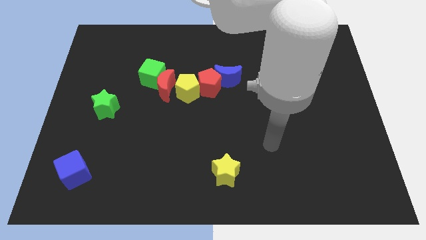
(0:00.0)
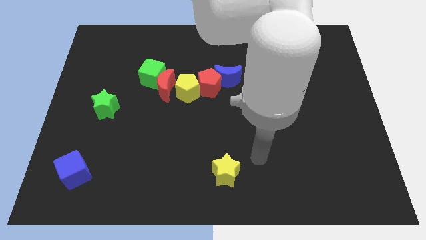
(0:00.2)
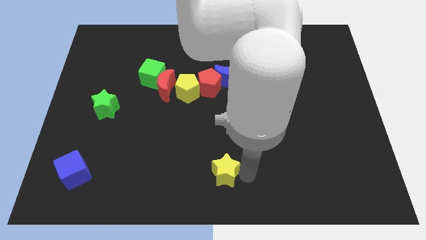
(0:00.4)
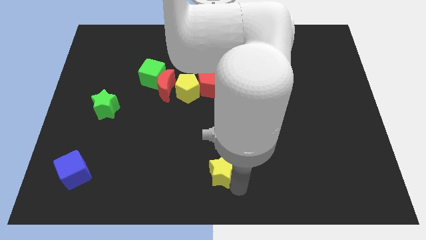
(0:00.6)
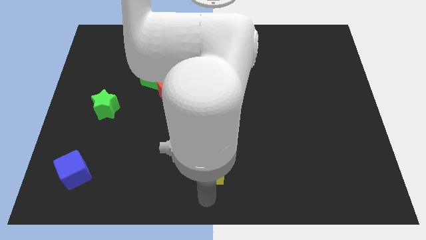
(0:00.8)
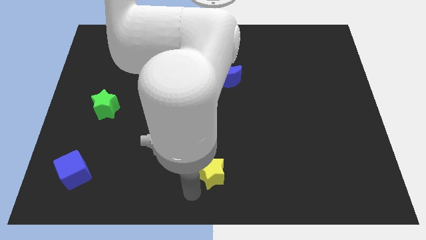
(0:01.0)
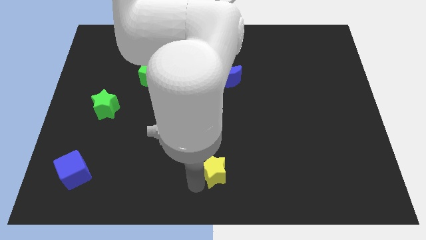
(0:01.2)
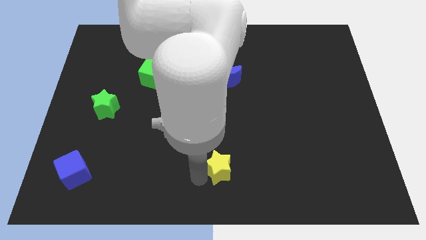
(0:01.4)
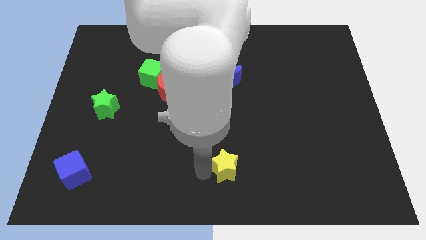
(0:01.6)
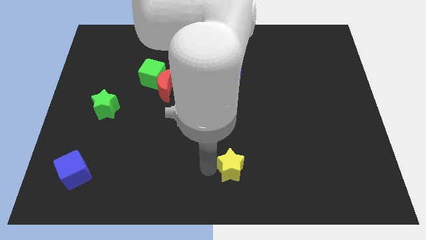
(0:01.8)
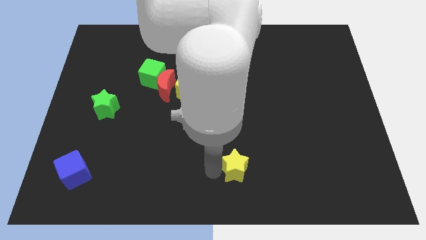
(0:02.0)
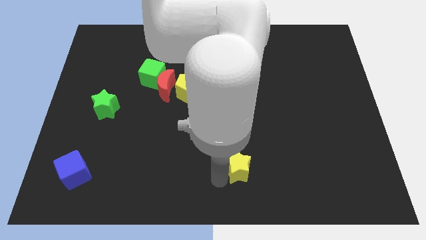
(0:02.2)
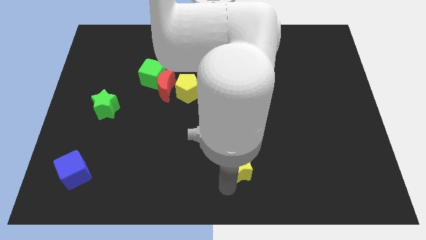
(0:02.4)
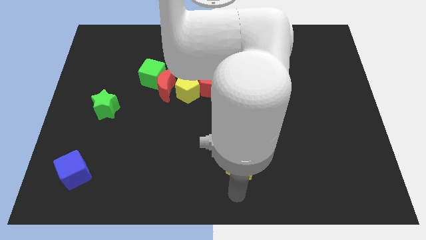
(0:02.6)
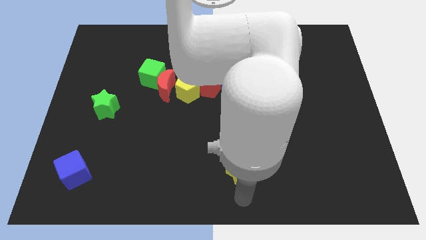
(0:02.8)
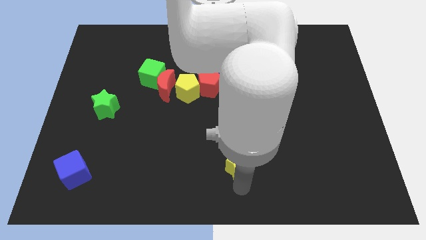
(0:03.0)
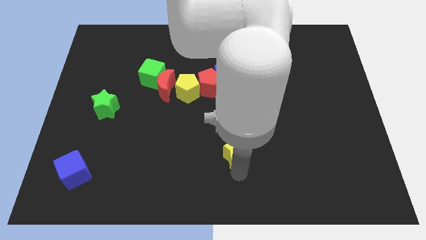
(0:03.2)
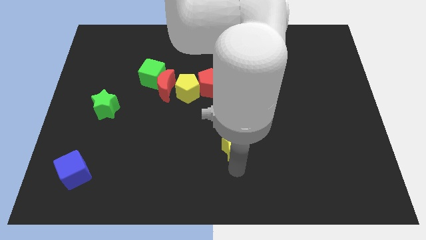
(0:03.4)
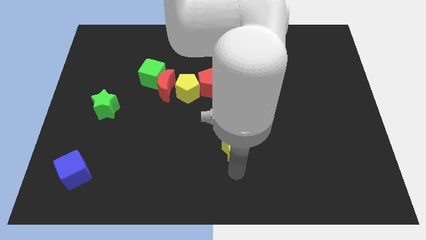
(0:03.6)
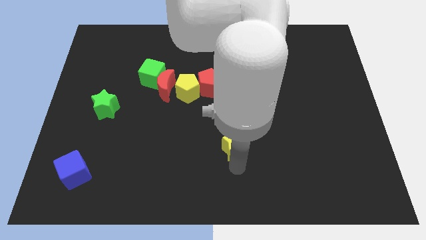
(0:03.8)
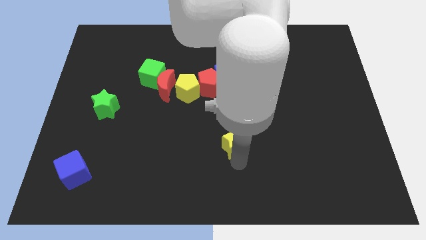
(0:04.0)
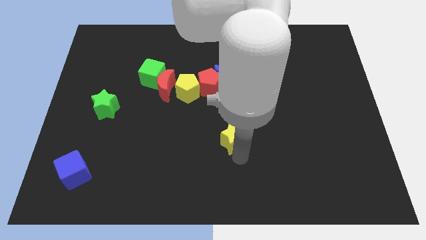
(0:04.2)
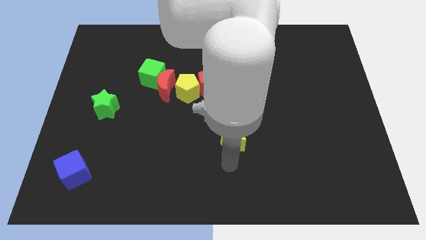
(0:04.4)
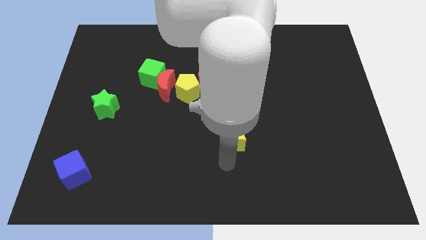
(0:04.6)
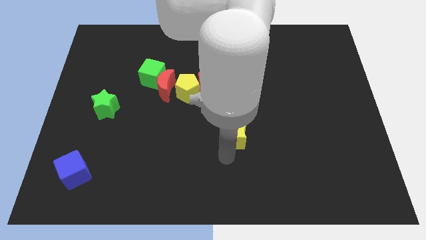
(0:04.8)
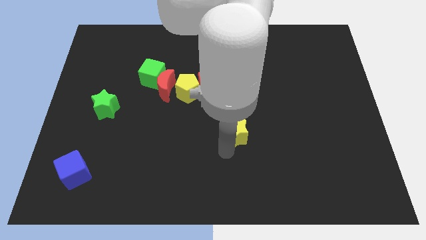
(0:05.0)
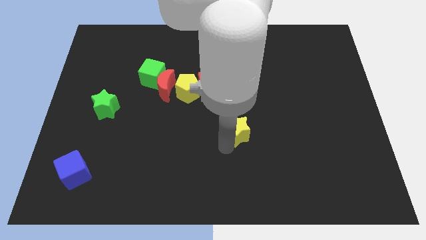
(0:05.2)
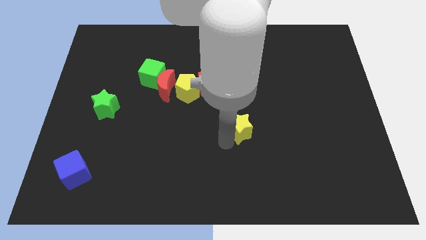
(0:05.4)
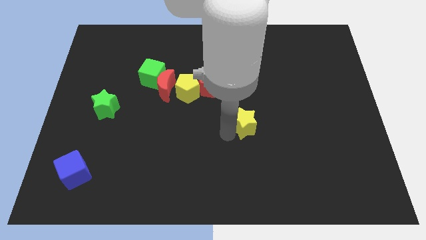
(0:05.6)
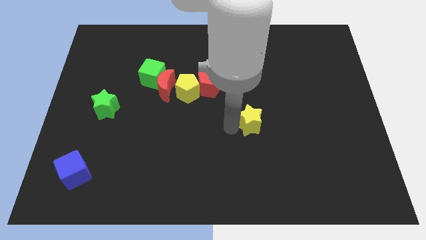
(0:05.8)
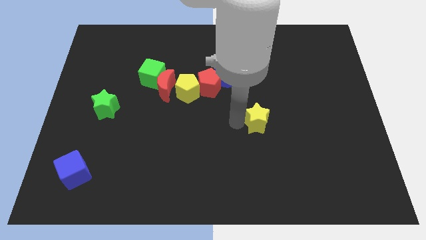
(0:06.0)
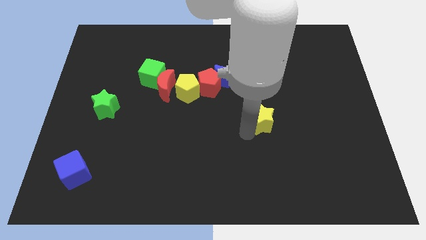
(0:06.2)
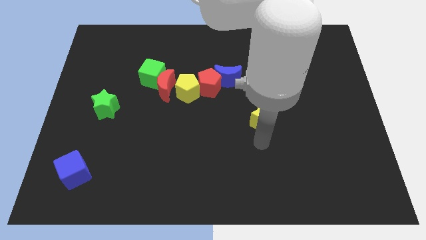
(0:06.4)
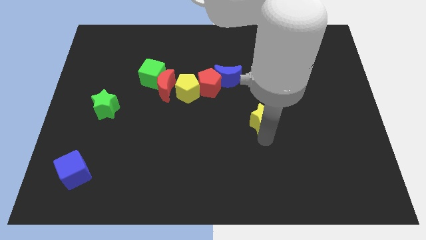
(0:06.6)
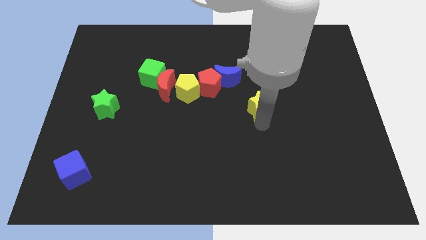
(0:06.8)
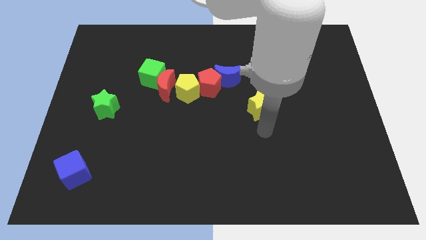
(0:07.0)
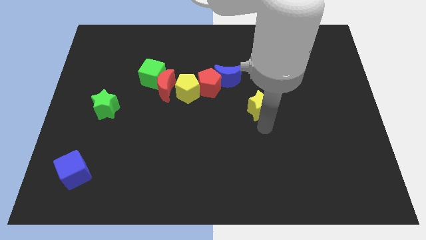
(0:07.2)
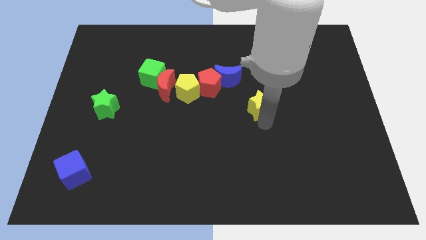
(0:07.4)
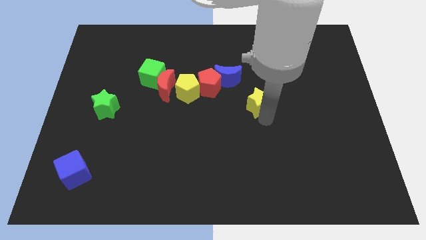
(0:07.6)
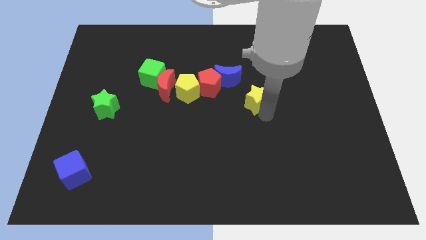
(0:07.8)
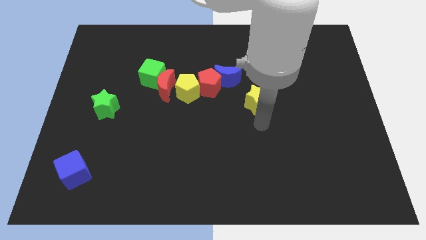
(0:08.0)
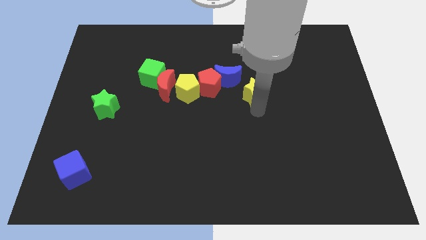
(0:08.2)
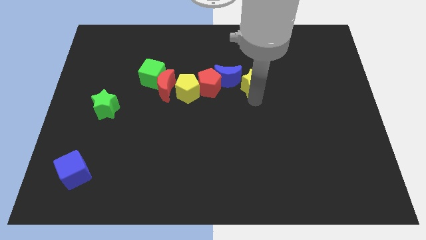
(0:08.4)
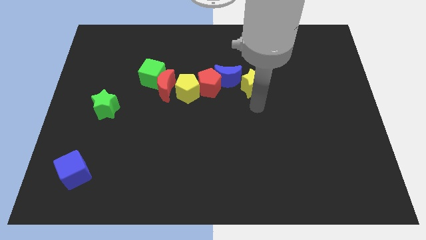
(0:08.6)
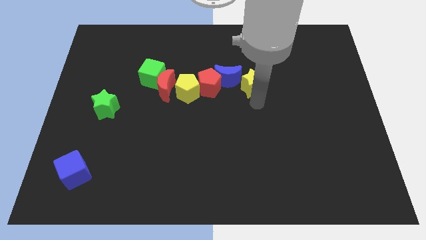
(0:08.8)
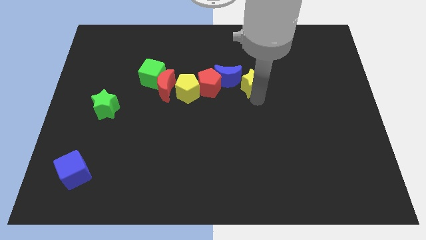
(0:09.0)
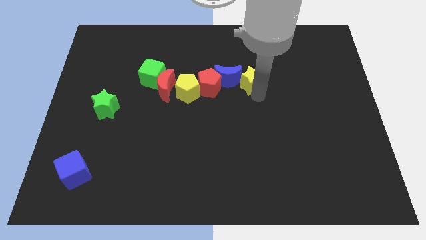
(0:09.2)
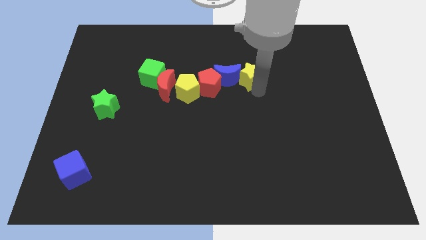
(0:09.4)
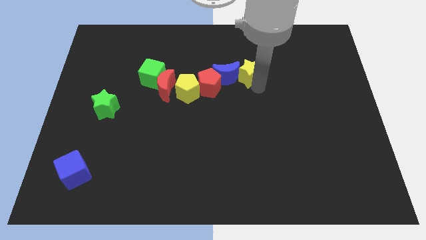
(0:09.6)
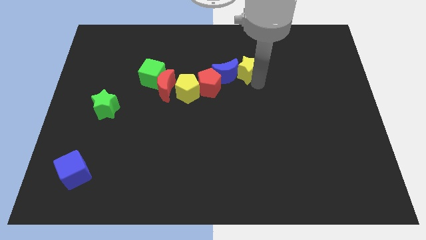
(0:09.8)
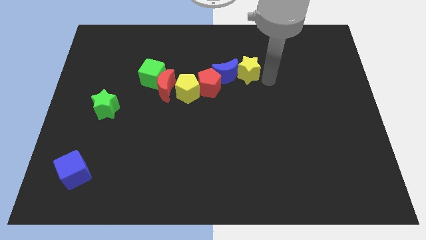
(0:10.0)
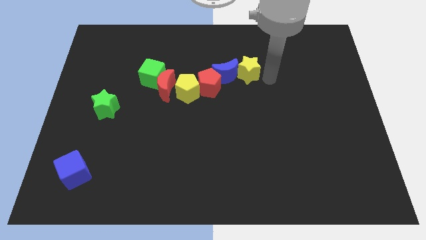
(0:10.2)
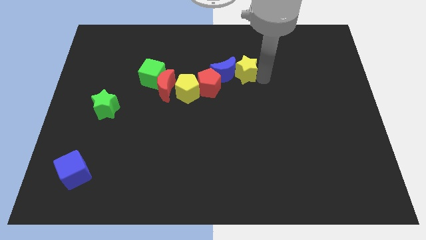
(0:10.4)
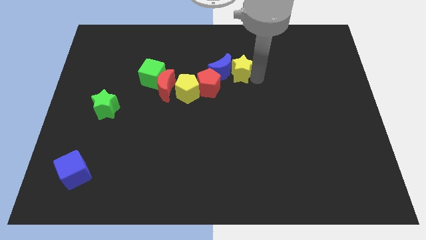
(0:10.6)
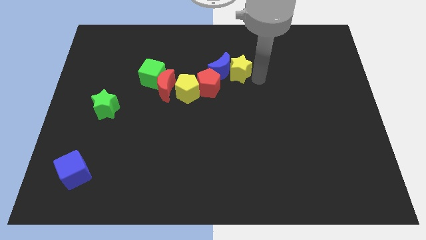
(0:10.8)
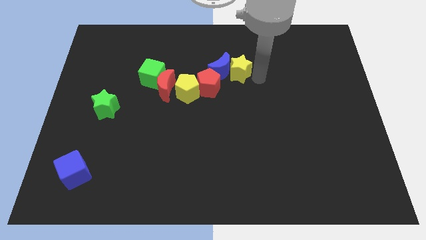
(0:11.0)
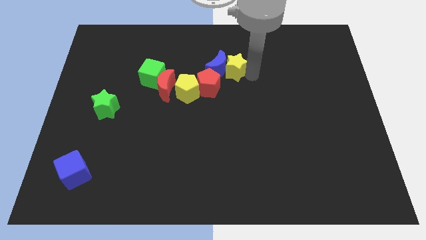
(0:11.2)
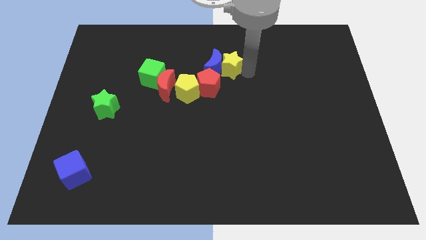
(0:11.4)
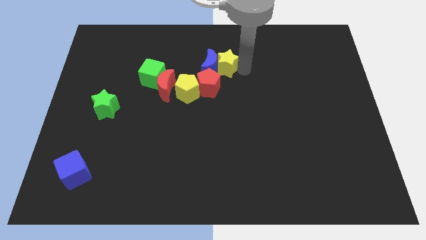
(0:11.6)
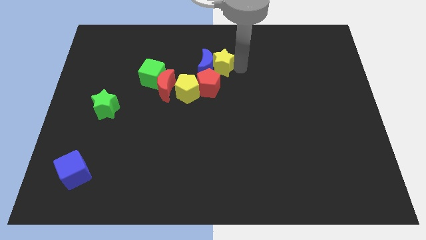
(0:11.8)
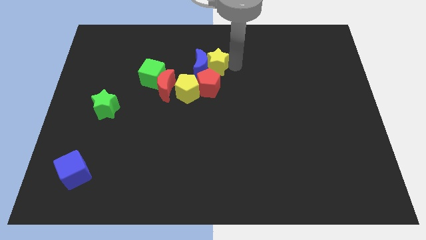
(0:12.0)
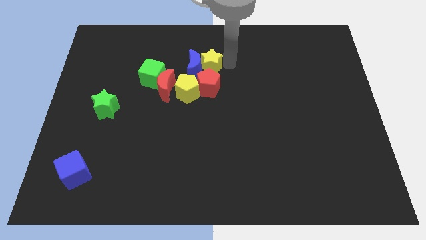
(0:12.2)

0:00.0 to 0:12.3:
move the yellow star diagonally up and to the left of the red pentagon
